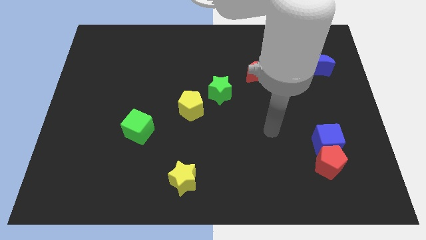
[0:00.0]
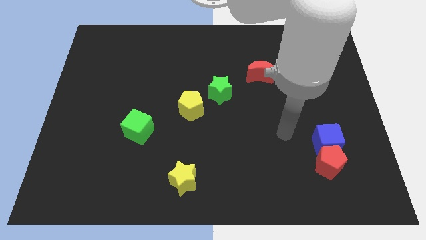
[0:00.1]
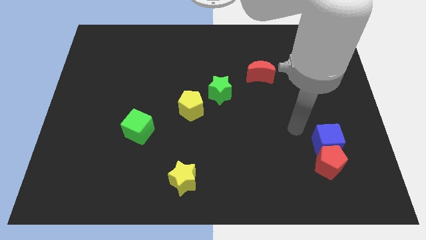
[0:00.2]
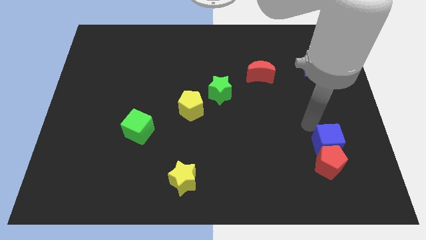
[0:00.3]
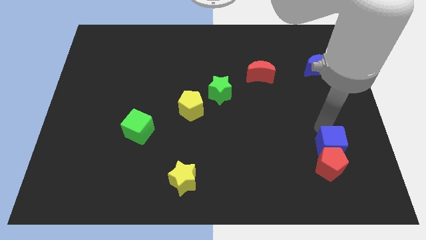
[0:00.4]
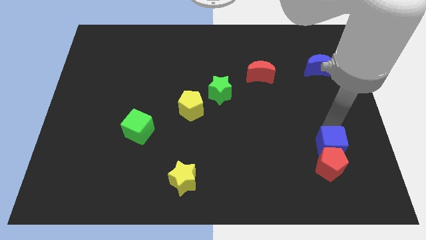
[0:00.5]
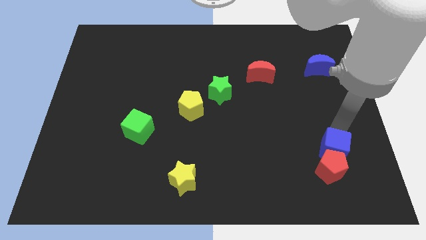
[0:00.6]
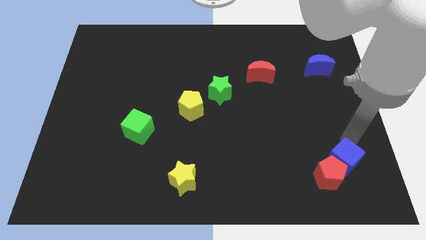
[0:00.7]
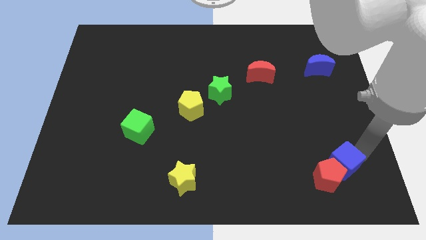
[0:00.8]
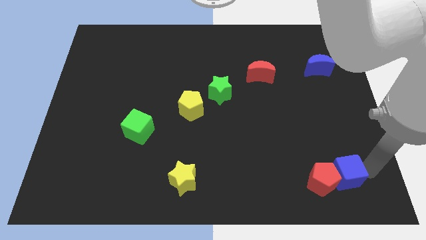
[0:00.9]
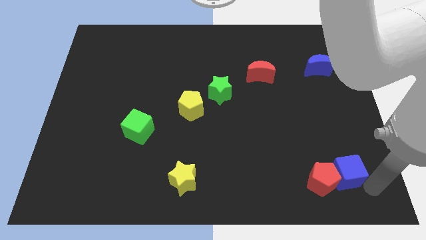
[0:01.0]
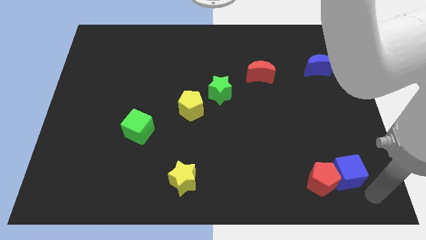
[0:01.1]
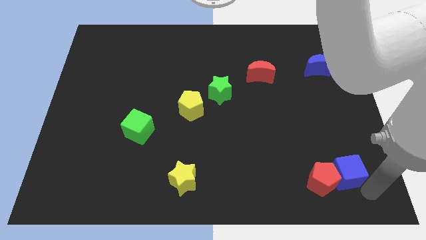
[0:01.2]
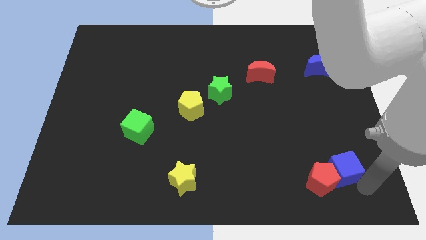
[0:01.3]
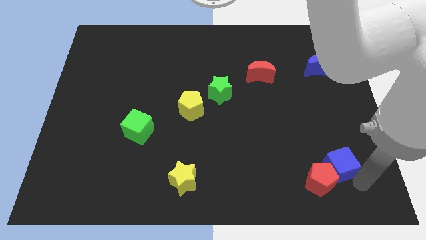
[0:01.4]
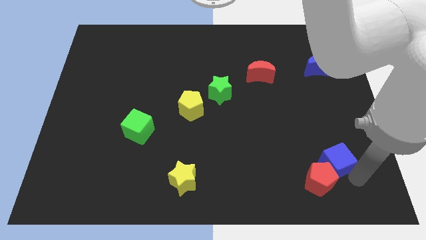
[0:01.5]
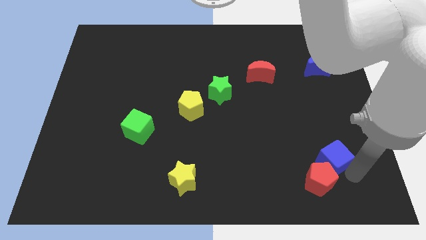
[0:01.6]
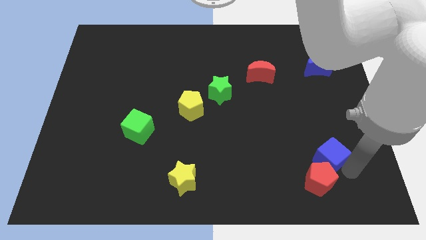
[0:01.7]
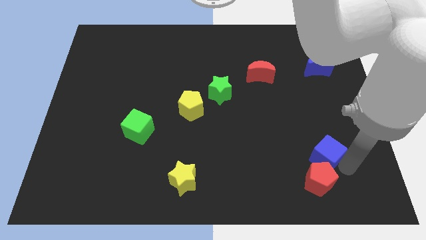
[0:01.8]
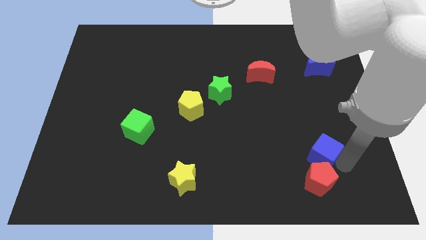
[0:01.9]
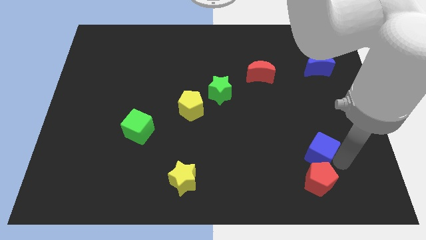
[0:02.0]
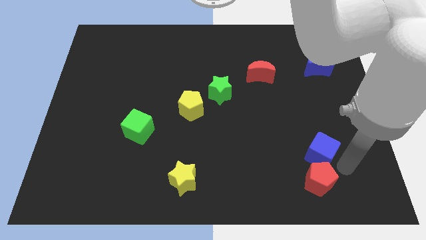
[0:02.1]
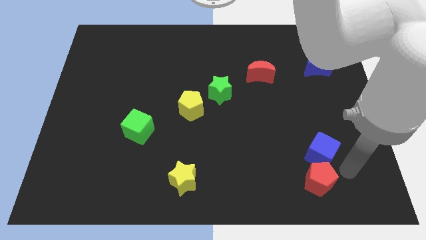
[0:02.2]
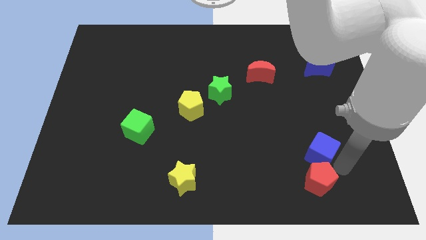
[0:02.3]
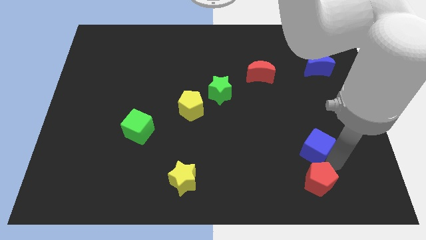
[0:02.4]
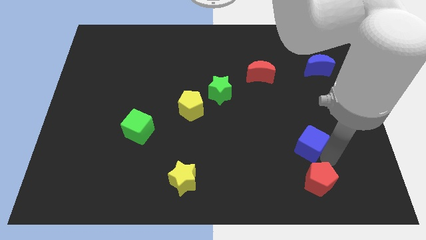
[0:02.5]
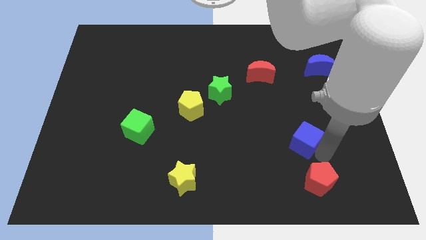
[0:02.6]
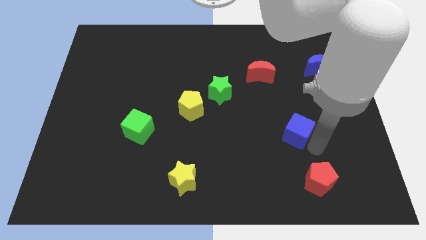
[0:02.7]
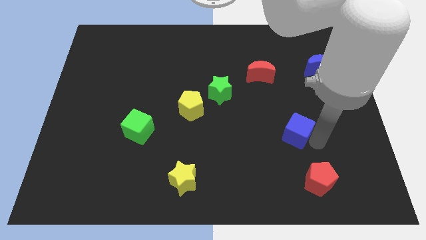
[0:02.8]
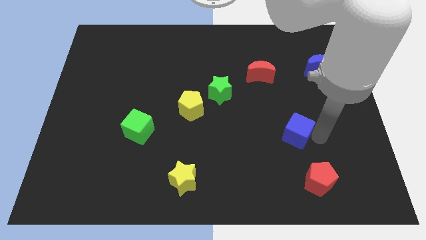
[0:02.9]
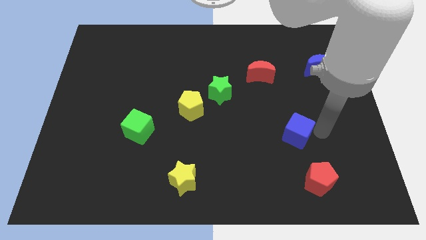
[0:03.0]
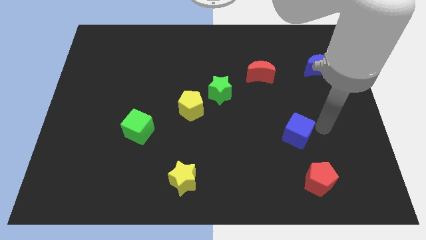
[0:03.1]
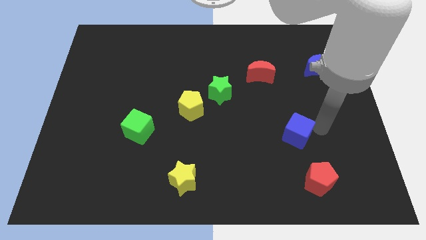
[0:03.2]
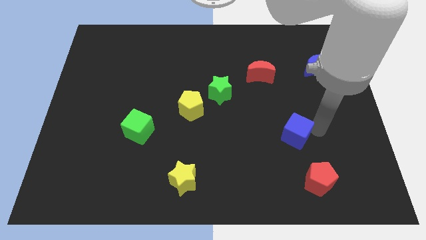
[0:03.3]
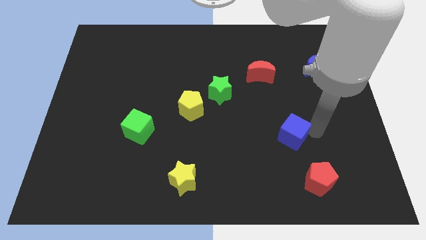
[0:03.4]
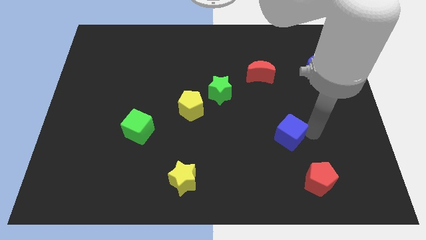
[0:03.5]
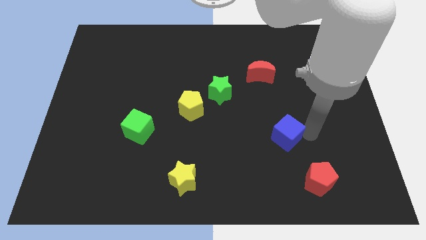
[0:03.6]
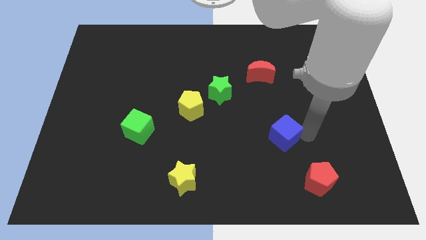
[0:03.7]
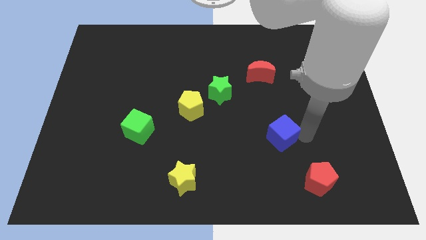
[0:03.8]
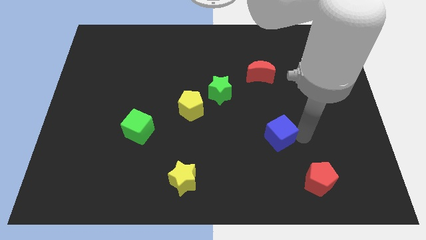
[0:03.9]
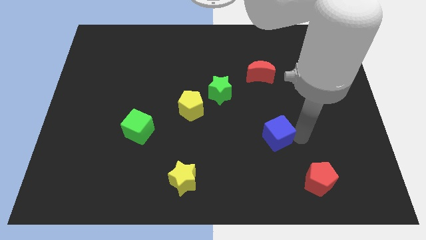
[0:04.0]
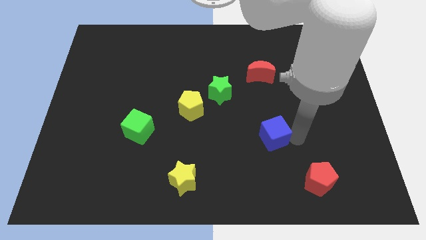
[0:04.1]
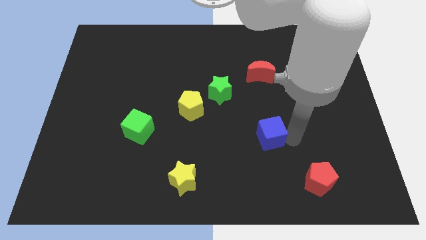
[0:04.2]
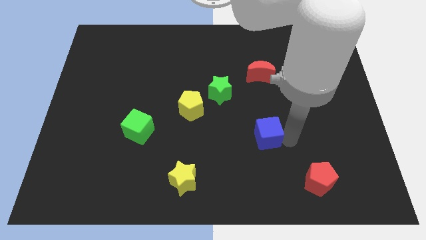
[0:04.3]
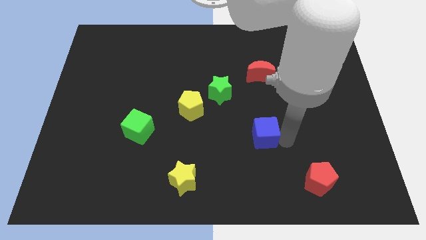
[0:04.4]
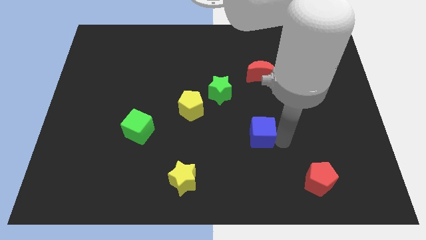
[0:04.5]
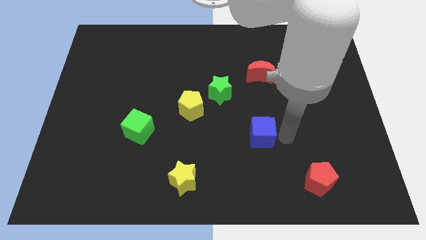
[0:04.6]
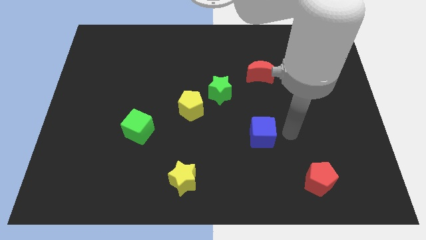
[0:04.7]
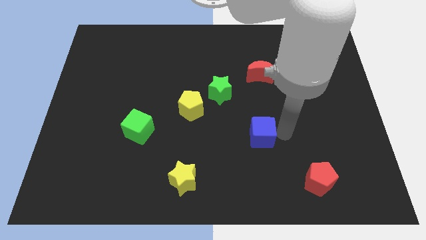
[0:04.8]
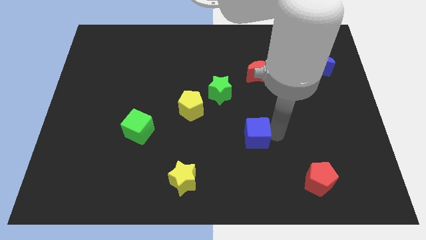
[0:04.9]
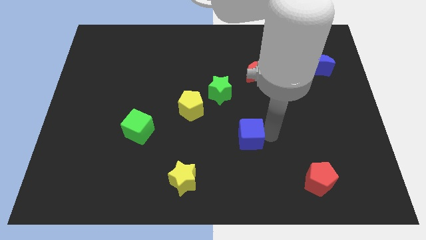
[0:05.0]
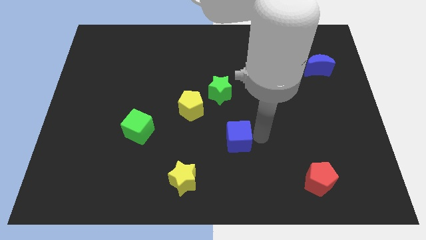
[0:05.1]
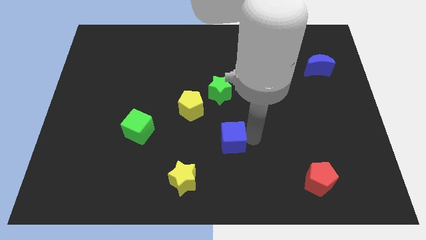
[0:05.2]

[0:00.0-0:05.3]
slide the blue cube to the left

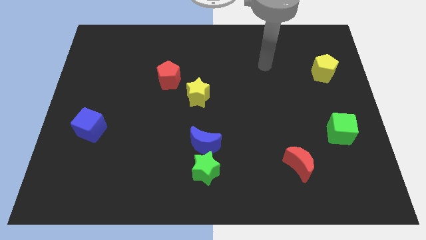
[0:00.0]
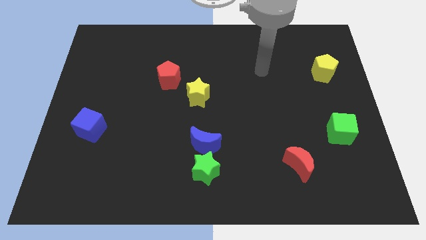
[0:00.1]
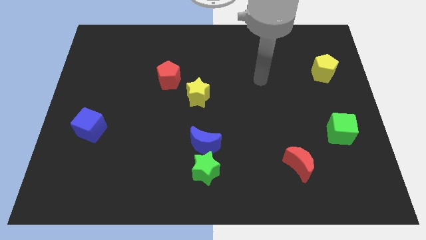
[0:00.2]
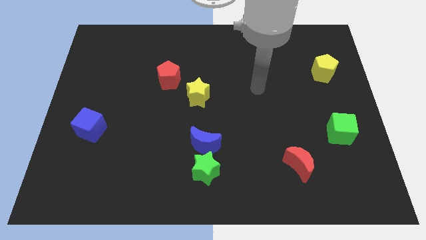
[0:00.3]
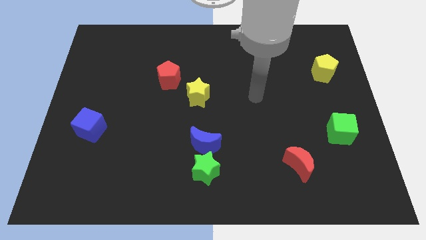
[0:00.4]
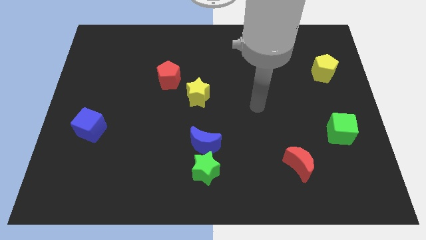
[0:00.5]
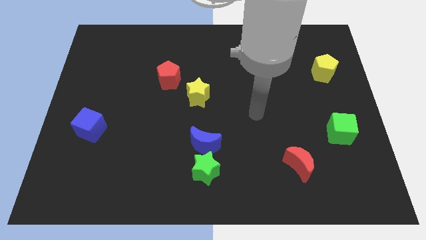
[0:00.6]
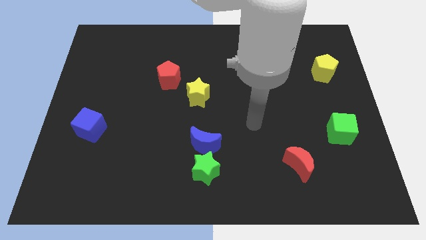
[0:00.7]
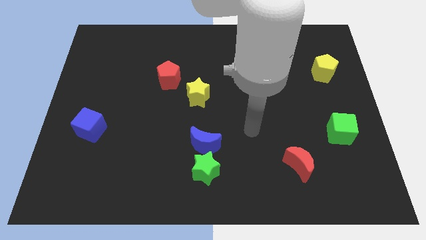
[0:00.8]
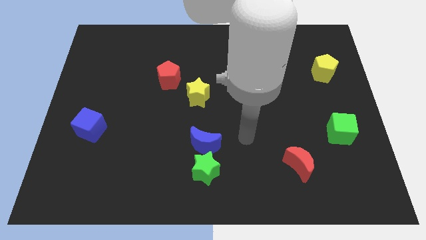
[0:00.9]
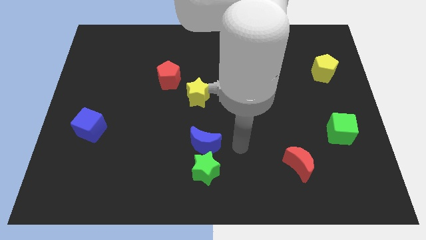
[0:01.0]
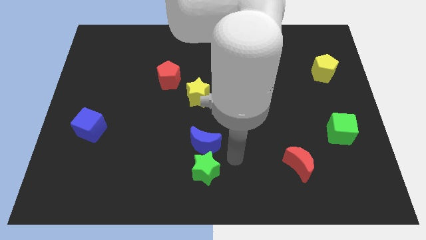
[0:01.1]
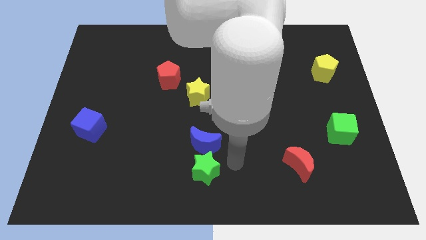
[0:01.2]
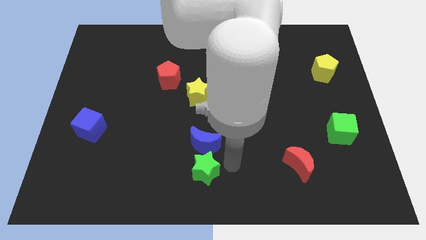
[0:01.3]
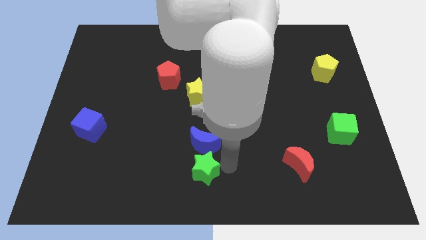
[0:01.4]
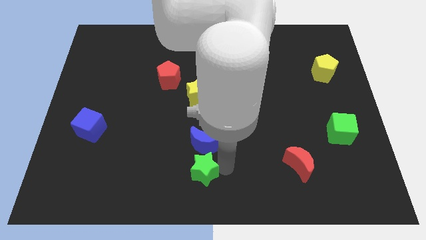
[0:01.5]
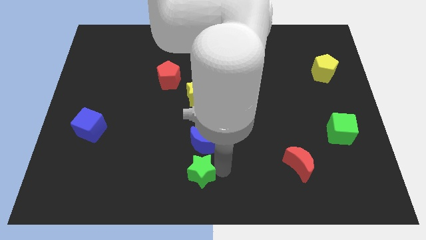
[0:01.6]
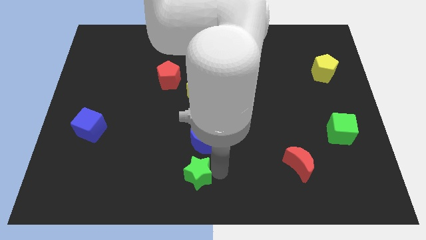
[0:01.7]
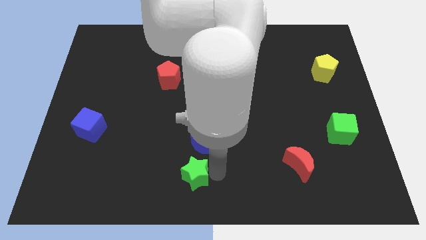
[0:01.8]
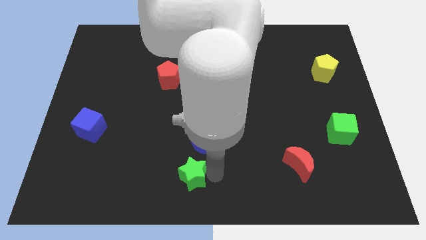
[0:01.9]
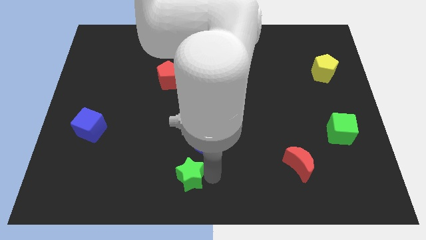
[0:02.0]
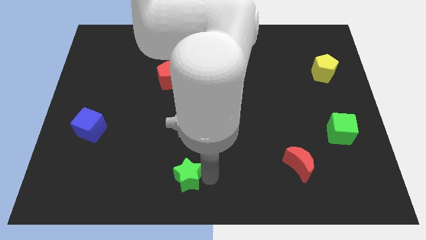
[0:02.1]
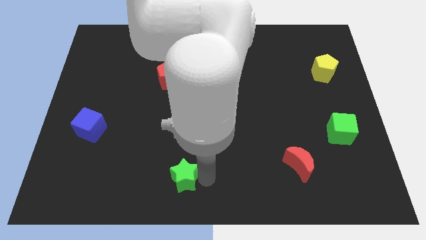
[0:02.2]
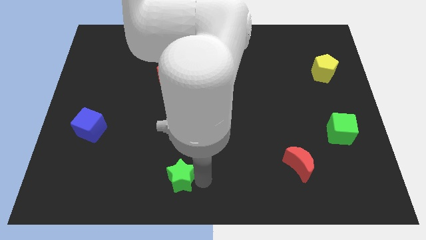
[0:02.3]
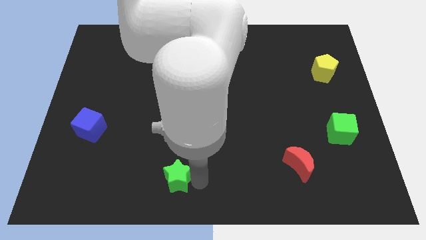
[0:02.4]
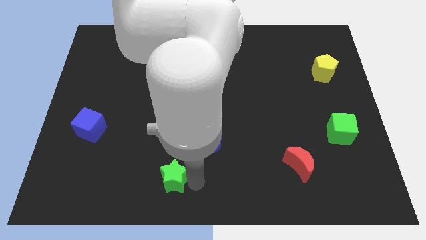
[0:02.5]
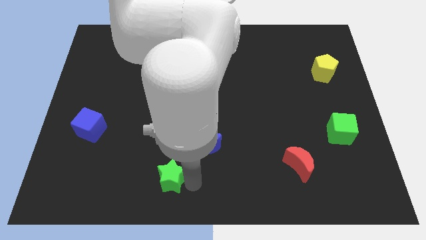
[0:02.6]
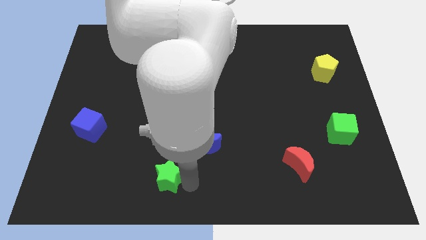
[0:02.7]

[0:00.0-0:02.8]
move the green star slightly left

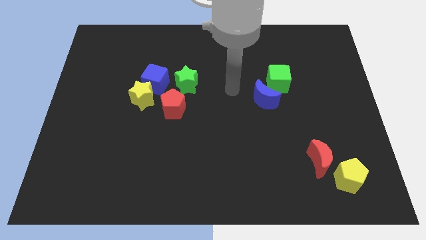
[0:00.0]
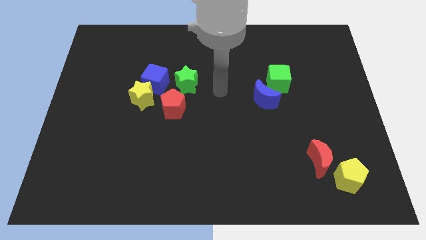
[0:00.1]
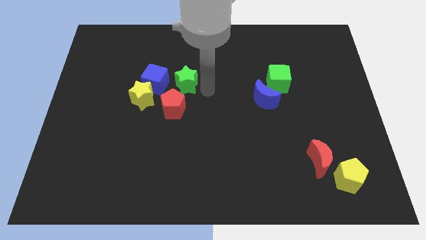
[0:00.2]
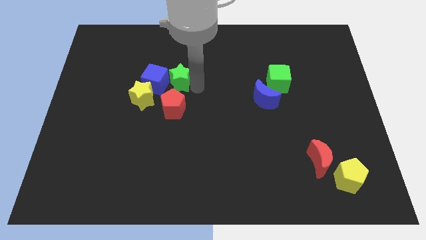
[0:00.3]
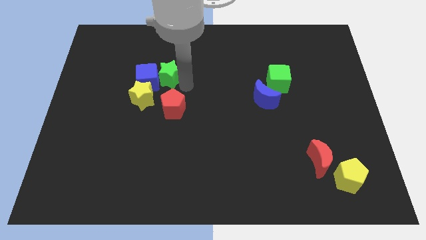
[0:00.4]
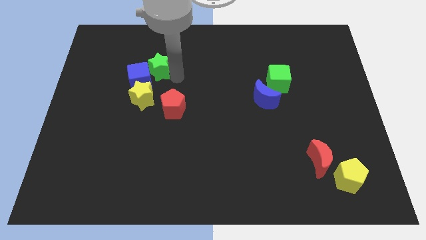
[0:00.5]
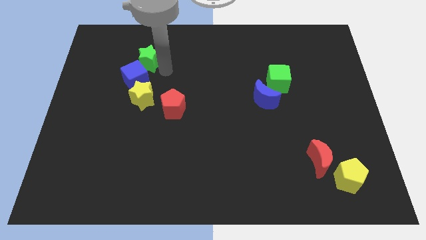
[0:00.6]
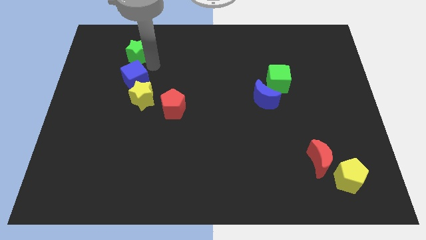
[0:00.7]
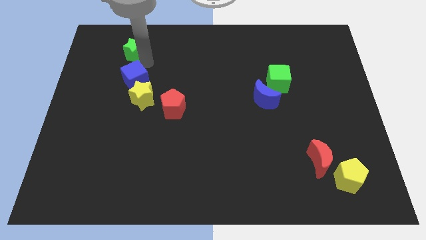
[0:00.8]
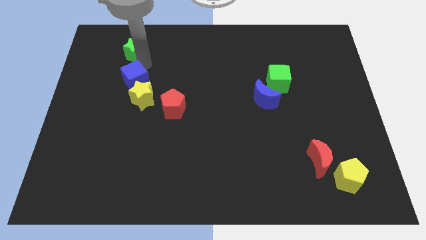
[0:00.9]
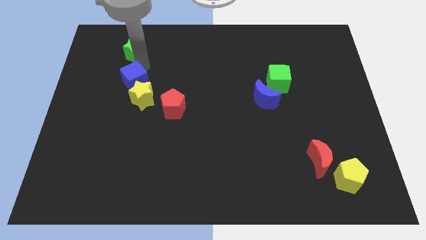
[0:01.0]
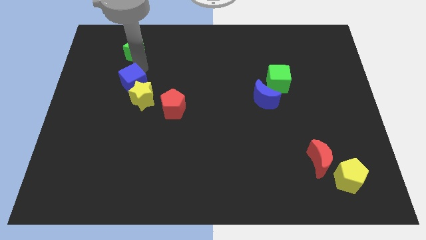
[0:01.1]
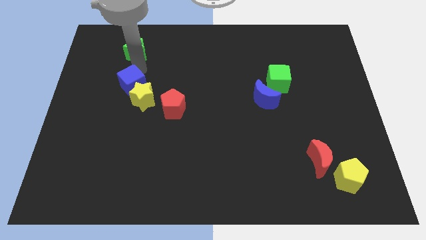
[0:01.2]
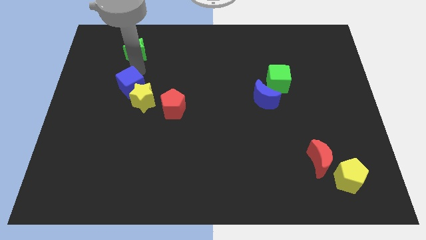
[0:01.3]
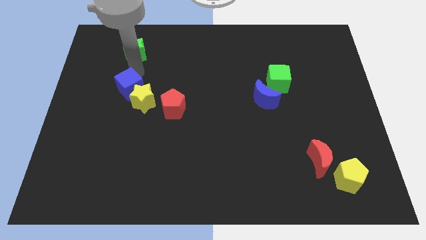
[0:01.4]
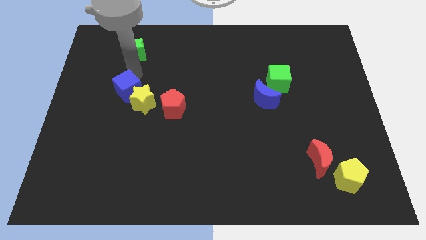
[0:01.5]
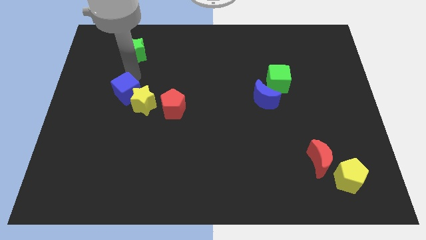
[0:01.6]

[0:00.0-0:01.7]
slightly move the blue cube downwards and then to the left
